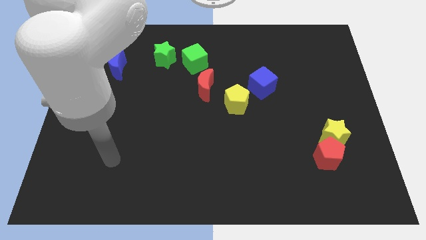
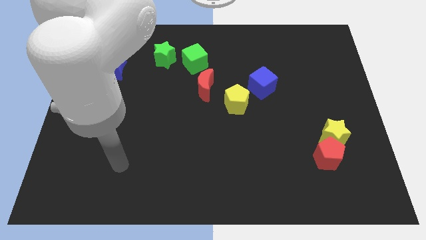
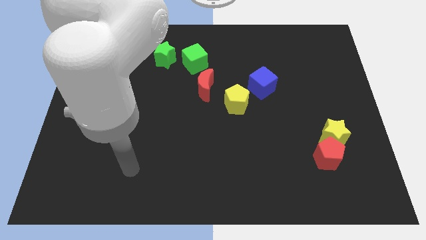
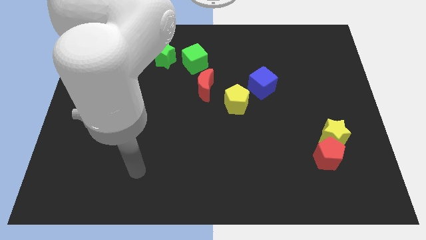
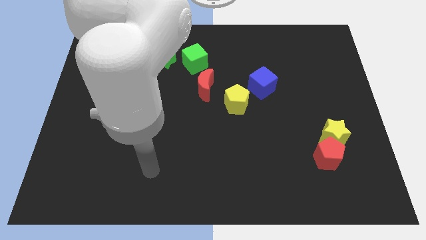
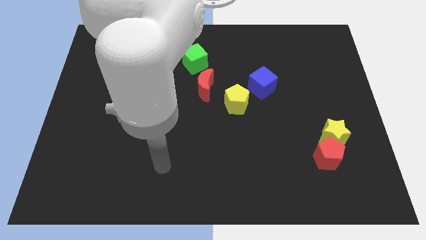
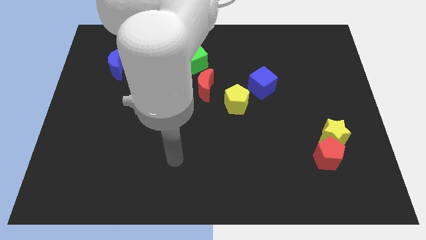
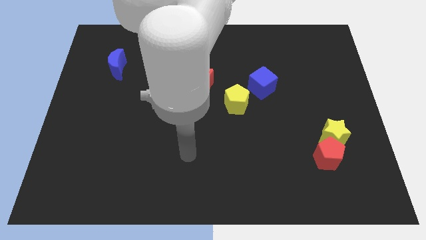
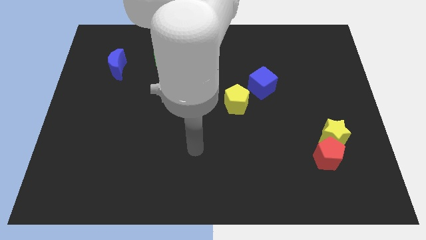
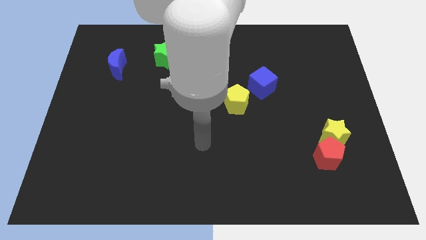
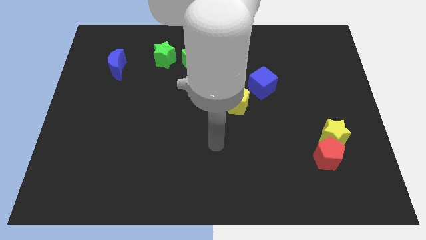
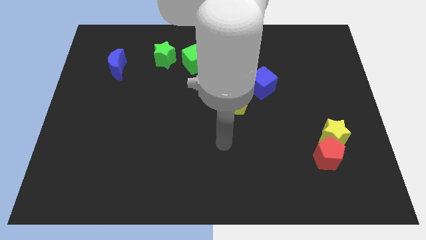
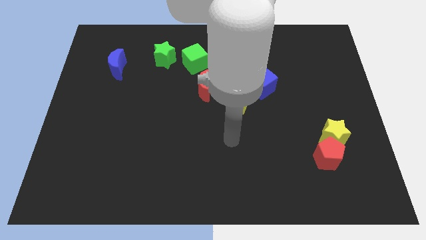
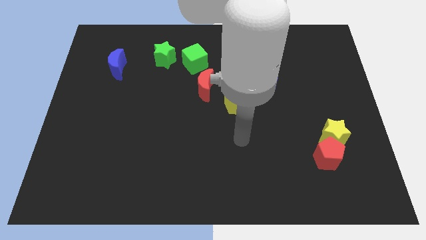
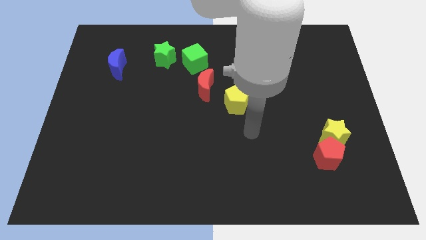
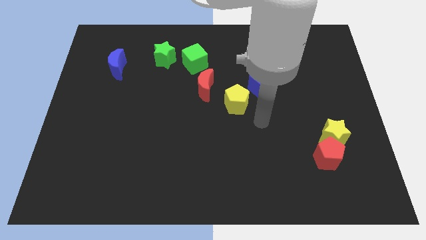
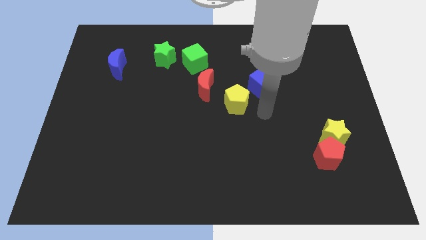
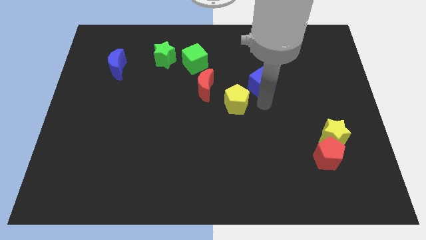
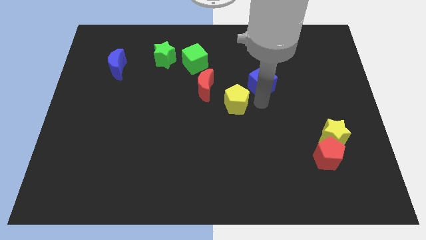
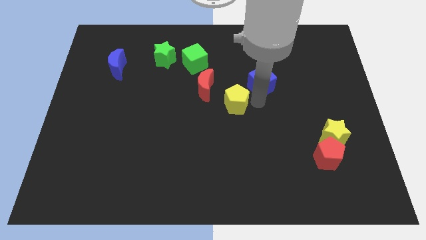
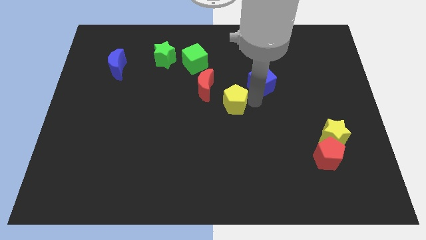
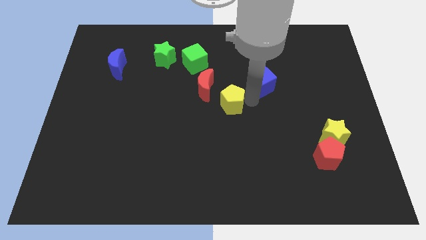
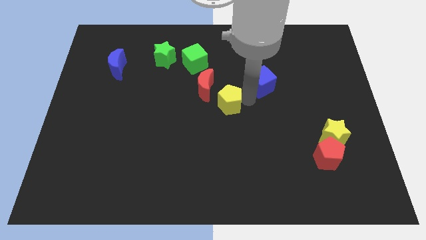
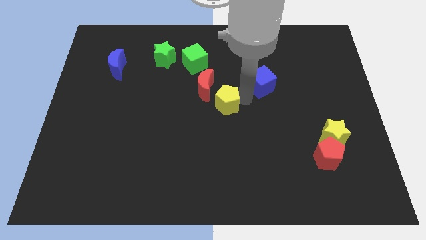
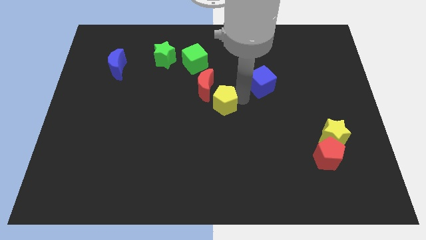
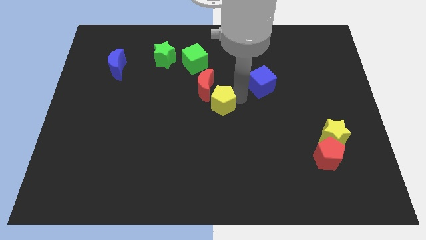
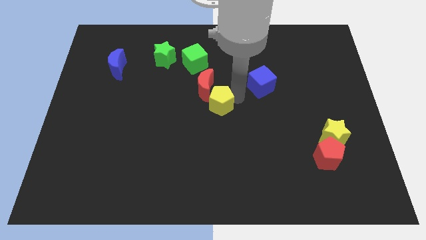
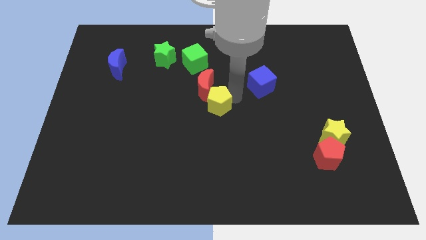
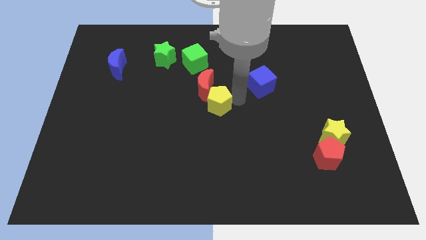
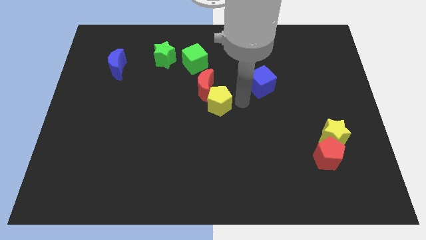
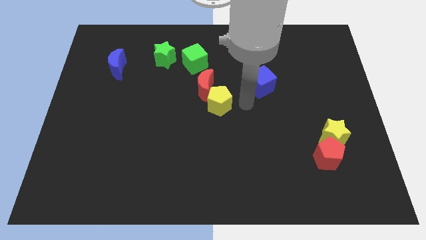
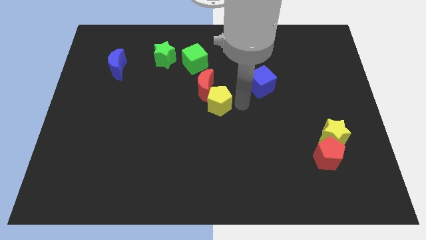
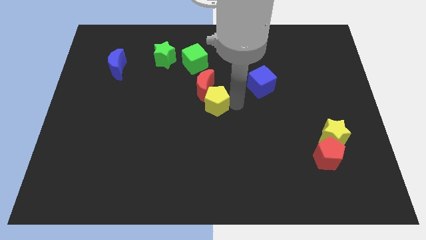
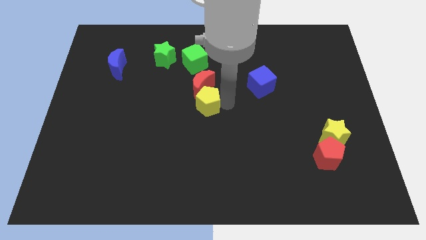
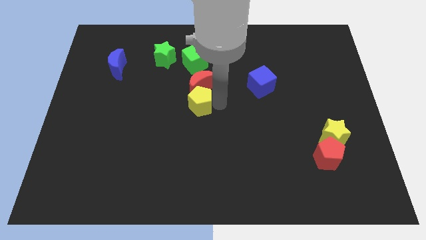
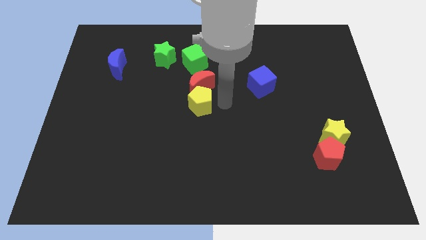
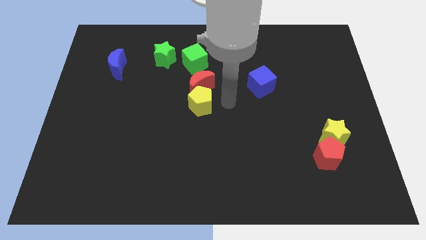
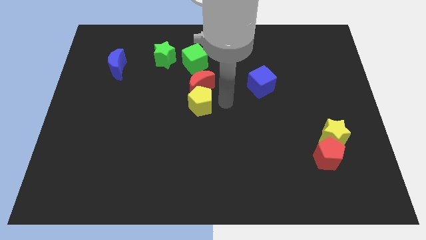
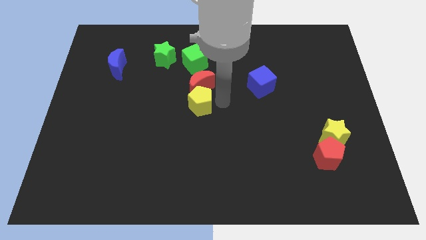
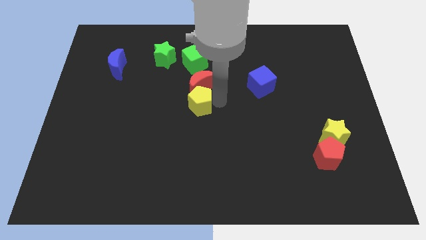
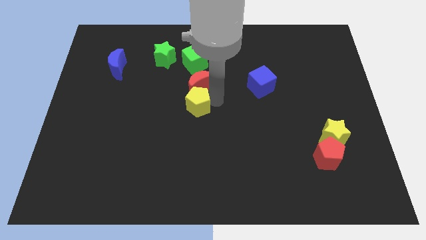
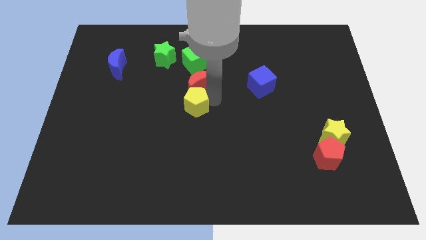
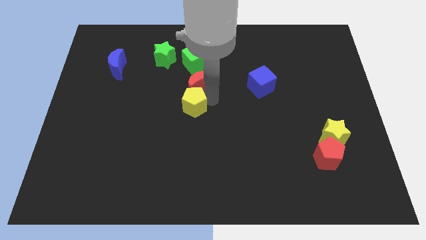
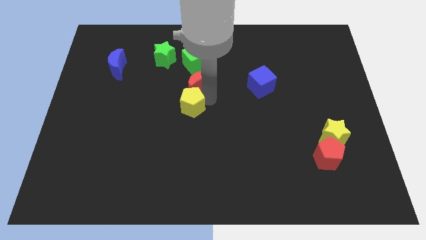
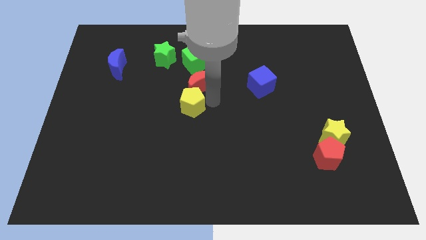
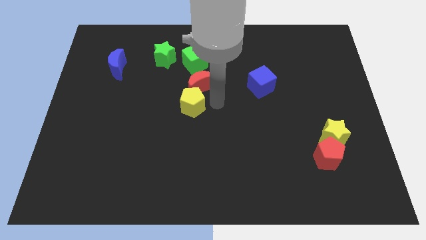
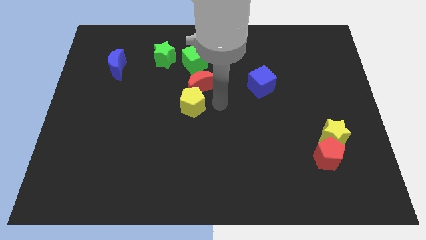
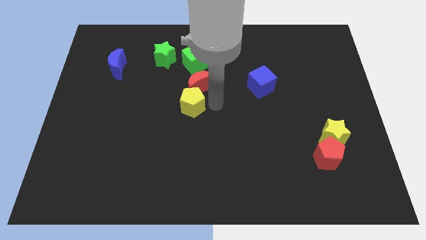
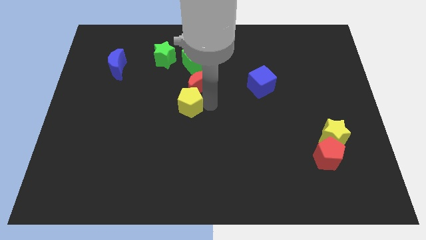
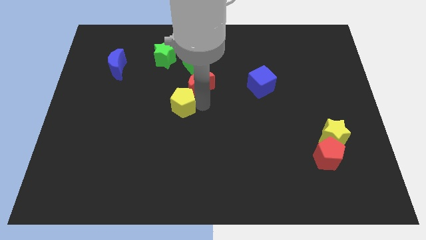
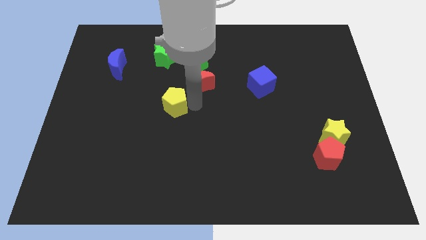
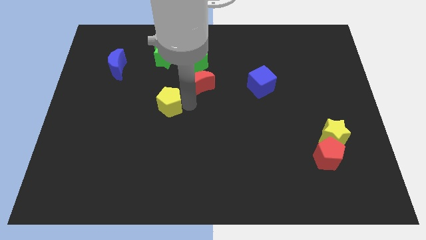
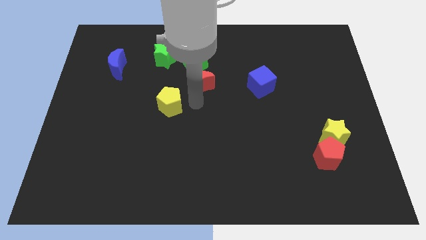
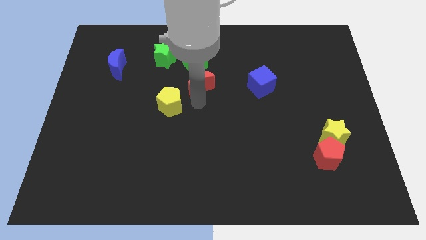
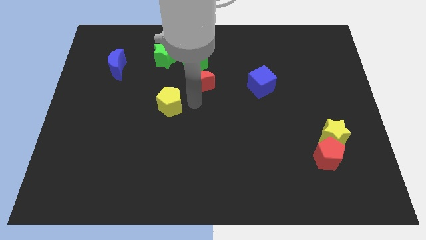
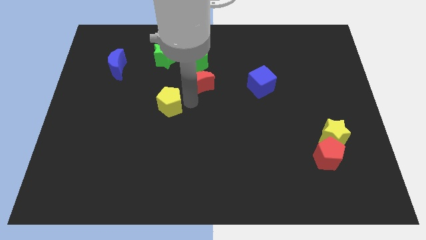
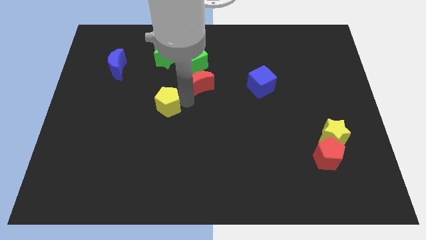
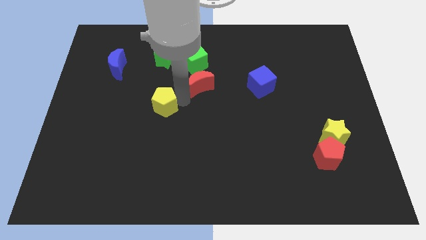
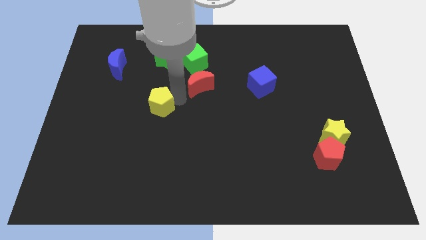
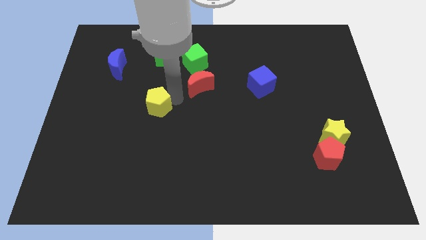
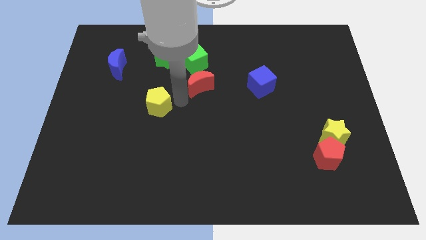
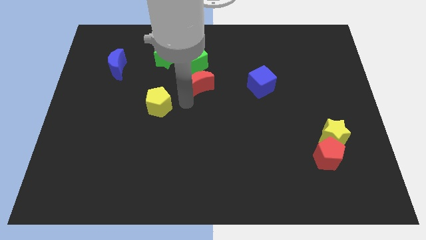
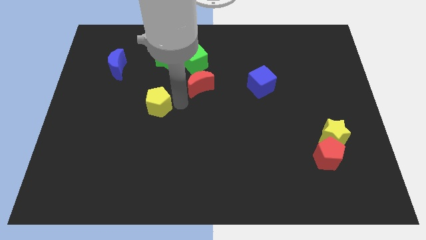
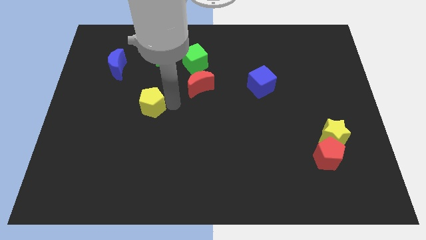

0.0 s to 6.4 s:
push the yellow pentagon to the left

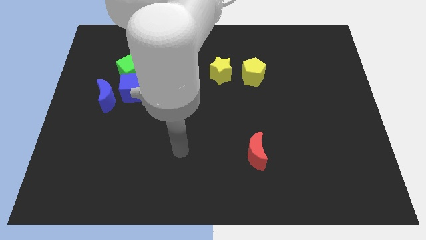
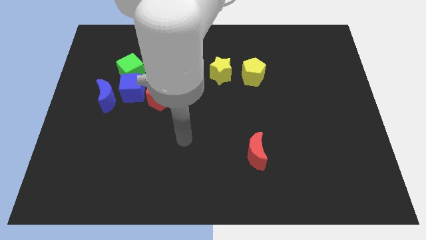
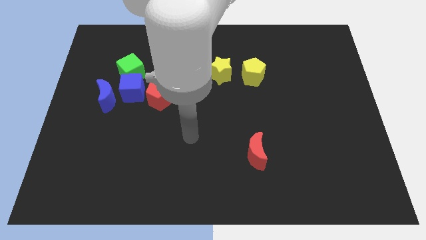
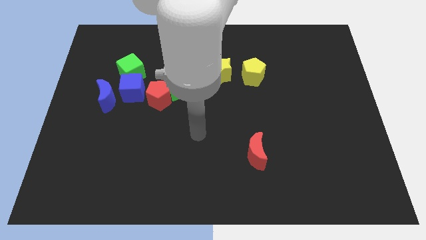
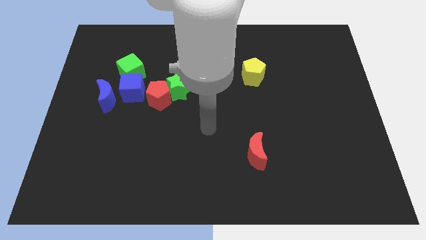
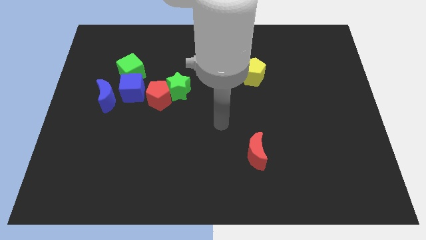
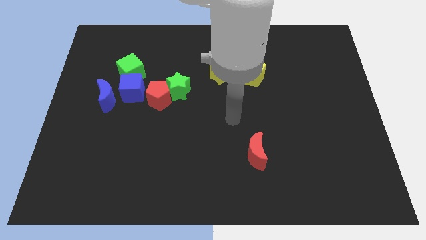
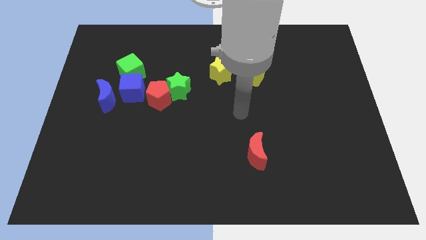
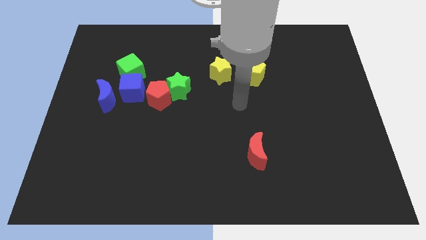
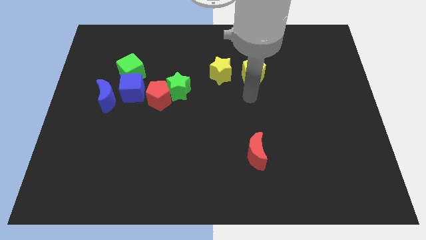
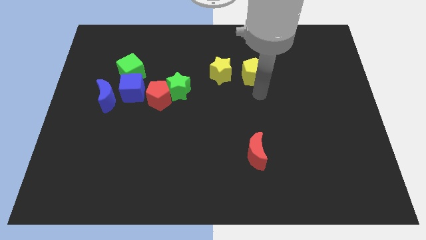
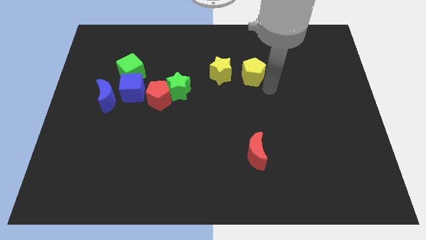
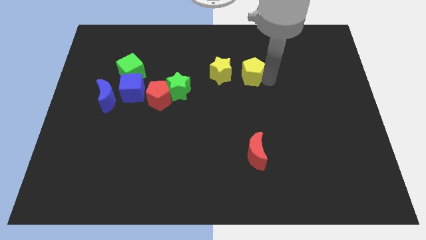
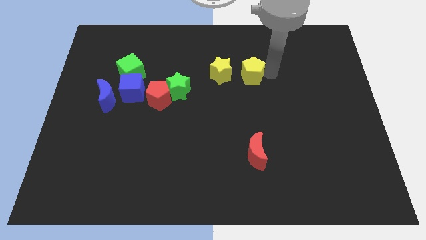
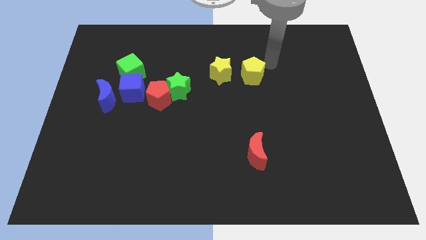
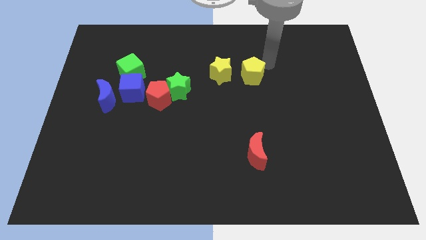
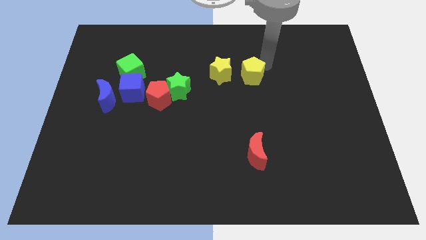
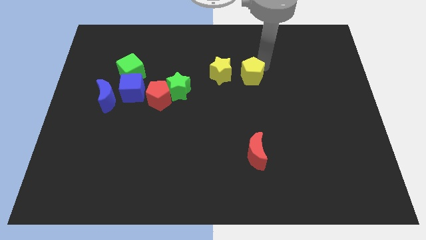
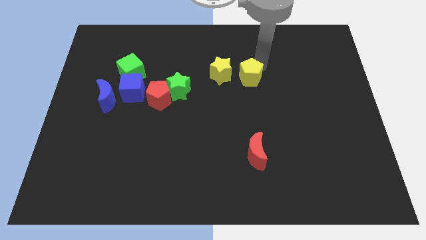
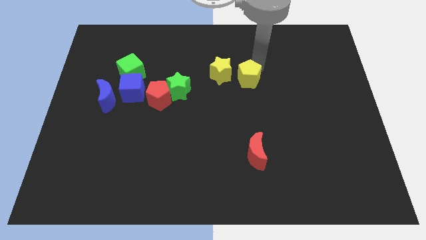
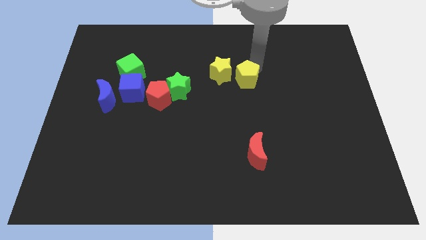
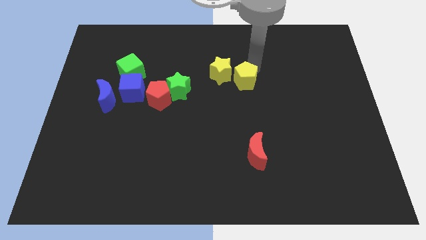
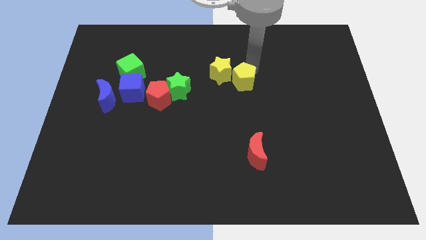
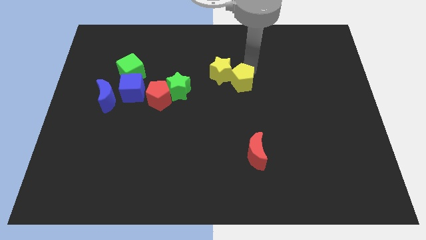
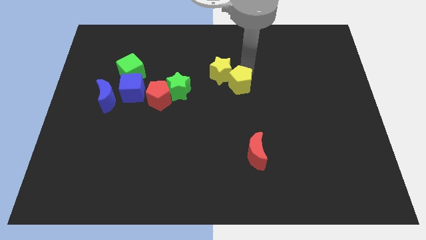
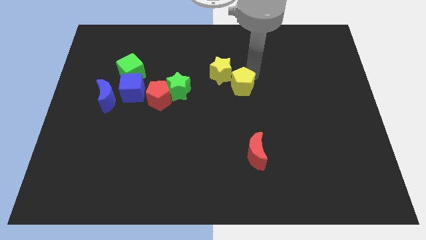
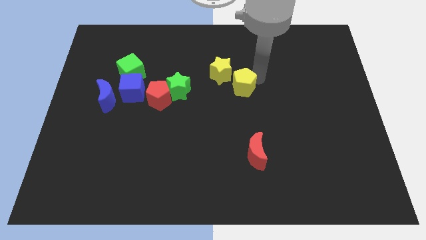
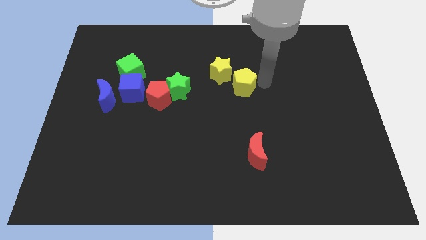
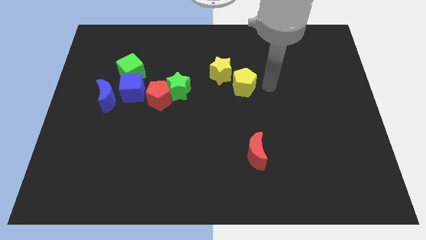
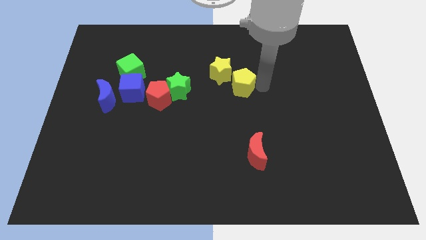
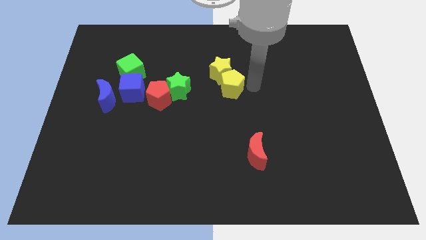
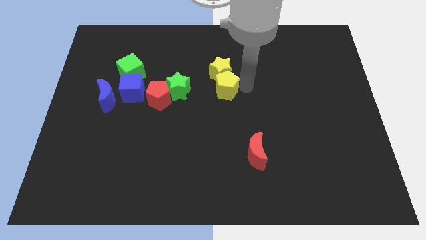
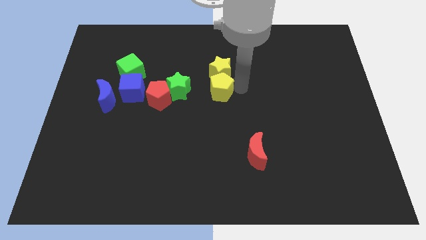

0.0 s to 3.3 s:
slide the yellow pentagon to the left slightly
